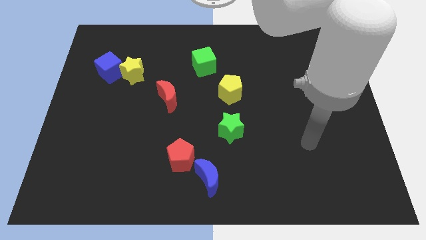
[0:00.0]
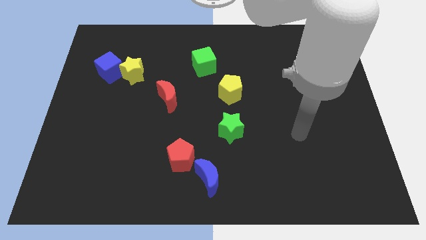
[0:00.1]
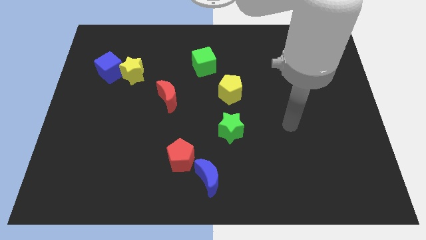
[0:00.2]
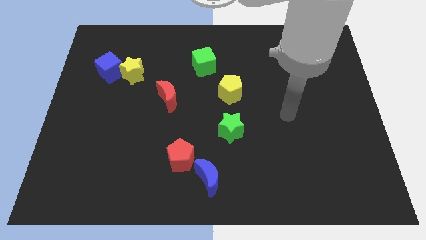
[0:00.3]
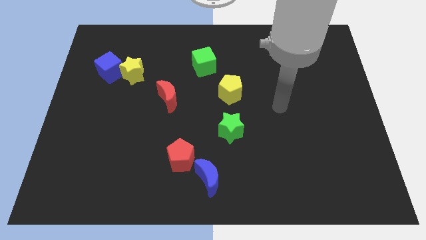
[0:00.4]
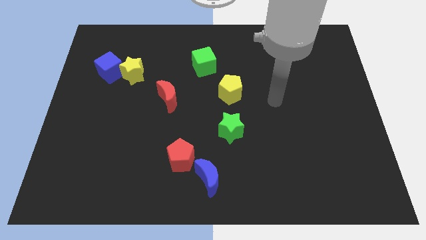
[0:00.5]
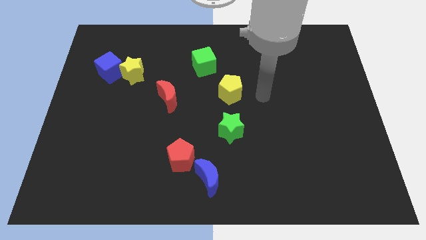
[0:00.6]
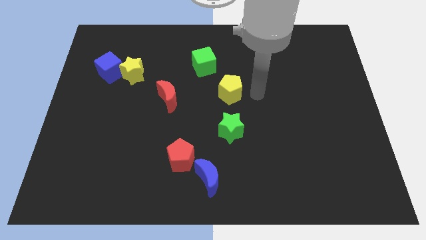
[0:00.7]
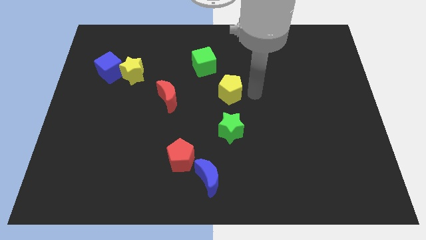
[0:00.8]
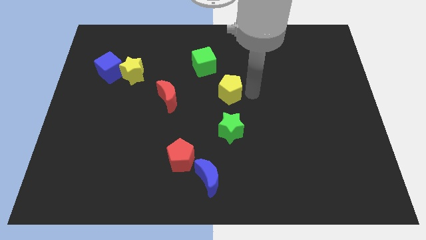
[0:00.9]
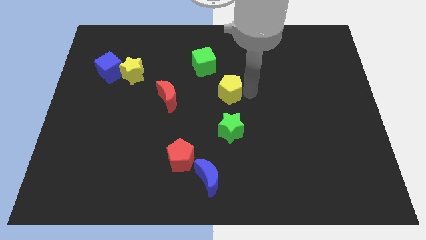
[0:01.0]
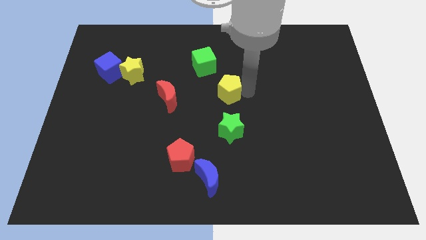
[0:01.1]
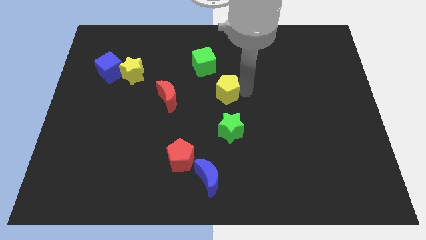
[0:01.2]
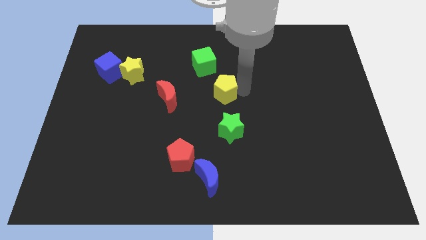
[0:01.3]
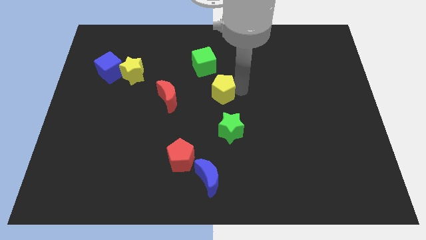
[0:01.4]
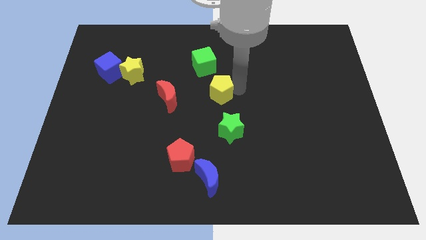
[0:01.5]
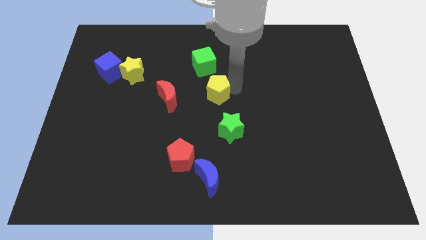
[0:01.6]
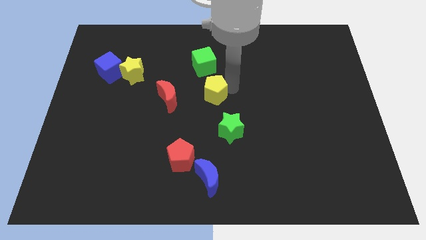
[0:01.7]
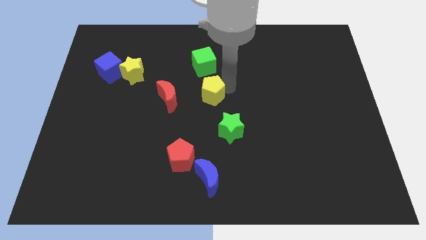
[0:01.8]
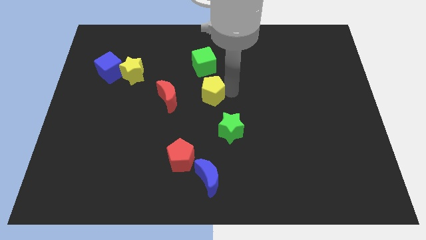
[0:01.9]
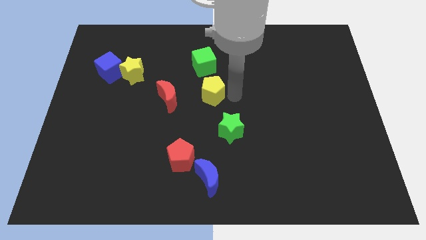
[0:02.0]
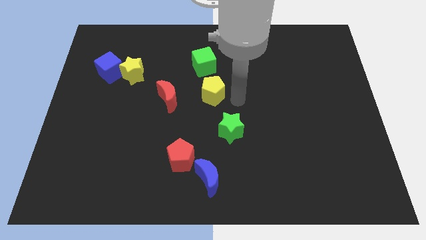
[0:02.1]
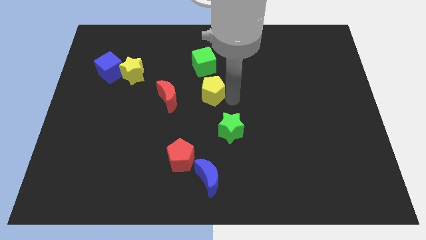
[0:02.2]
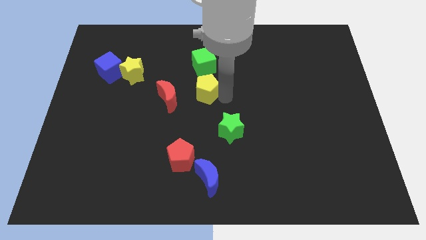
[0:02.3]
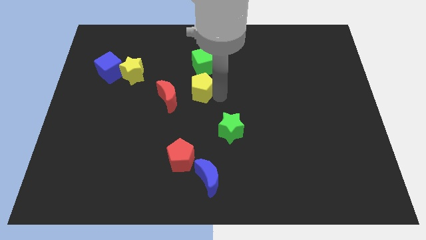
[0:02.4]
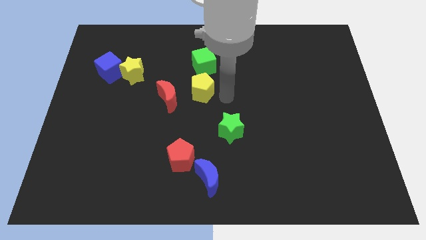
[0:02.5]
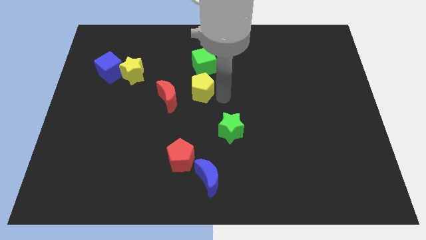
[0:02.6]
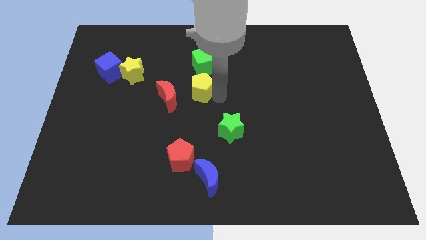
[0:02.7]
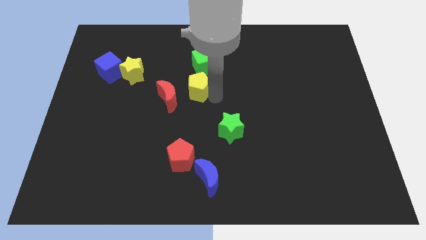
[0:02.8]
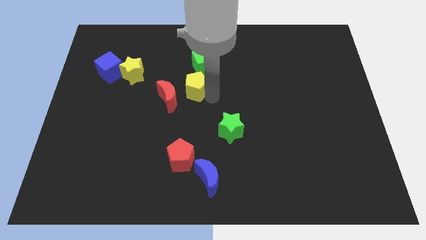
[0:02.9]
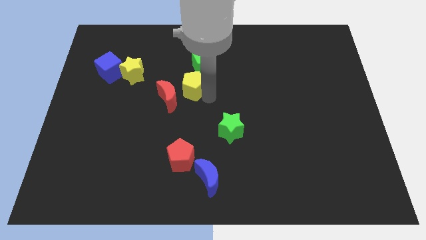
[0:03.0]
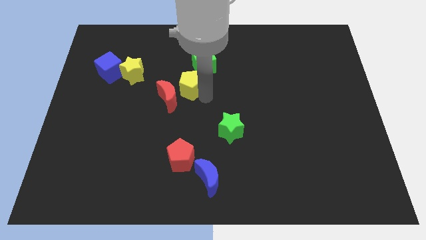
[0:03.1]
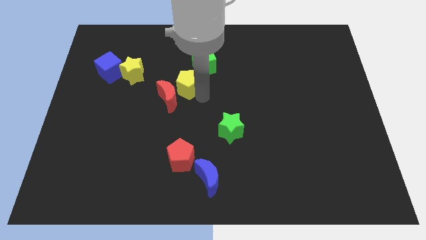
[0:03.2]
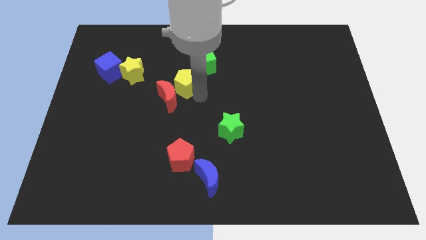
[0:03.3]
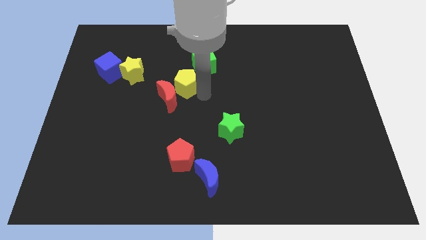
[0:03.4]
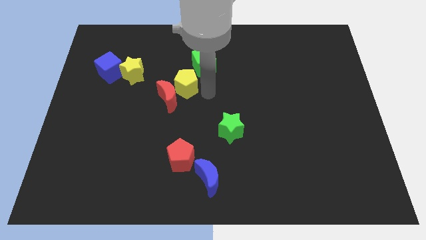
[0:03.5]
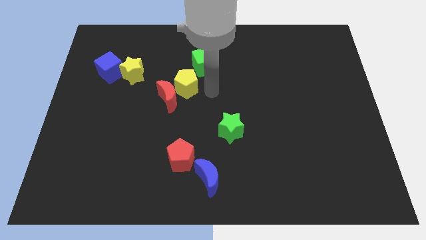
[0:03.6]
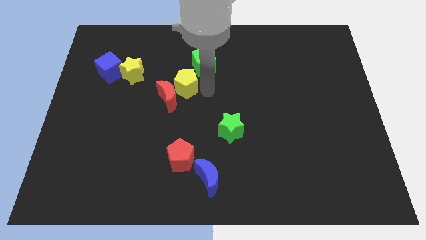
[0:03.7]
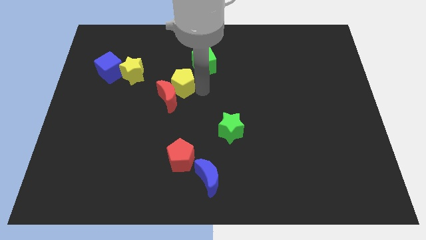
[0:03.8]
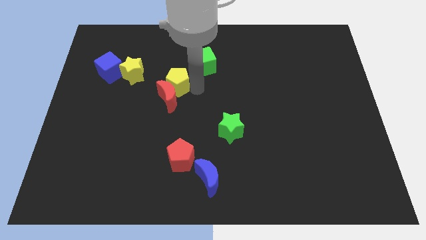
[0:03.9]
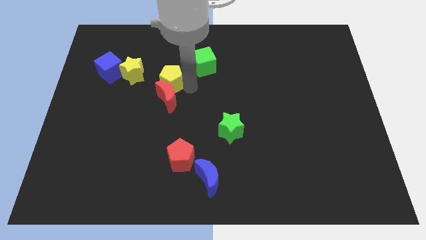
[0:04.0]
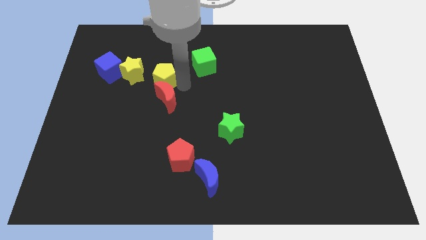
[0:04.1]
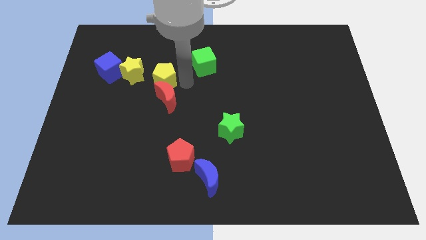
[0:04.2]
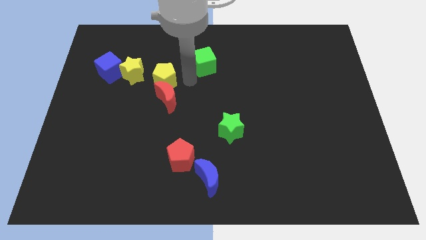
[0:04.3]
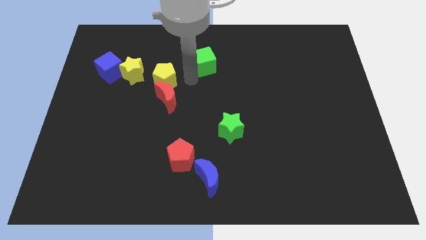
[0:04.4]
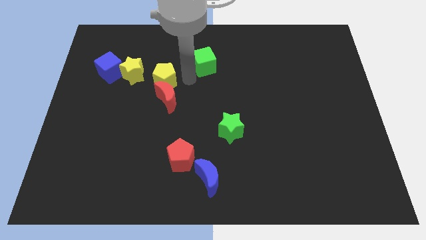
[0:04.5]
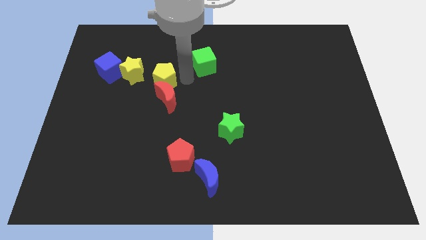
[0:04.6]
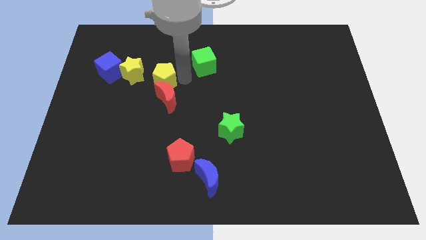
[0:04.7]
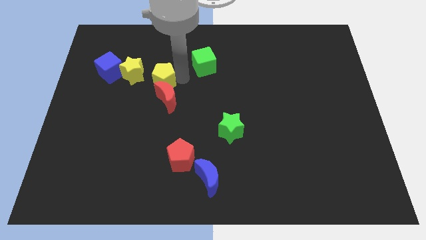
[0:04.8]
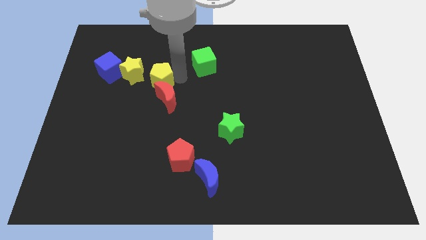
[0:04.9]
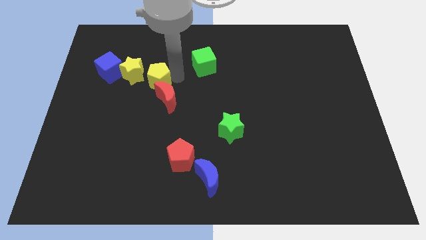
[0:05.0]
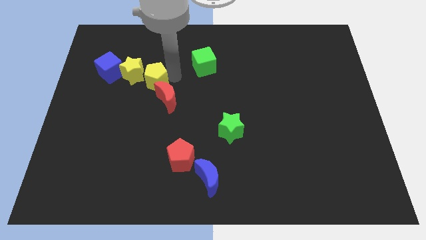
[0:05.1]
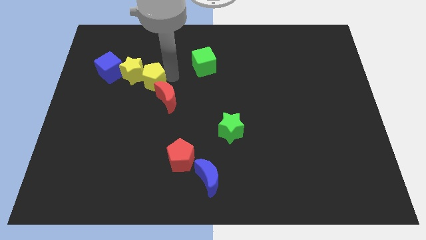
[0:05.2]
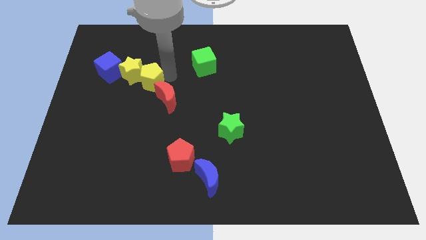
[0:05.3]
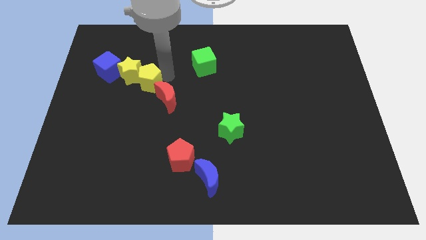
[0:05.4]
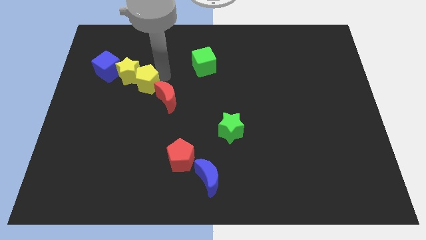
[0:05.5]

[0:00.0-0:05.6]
push the yellow pentagon to the left

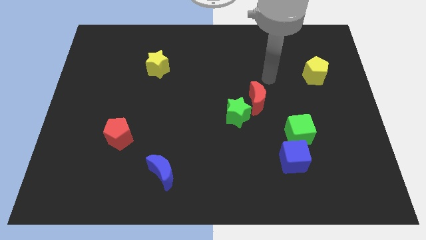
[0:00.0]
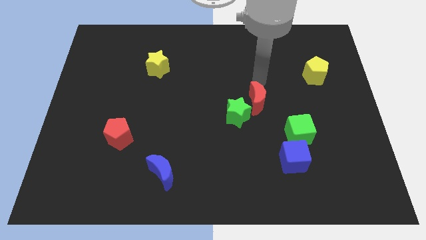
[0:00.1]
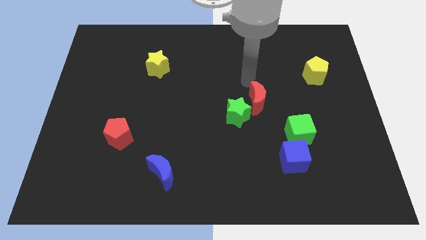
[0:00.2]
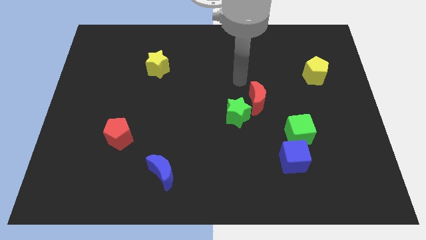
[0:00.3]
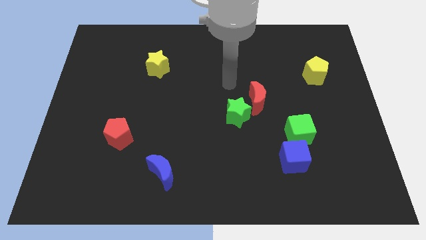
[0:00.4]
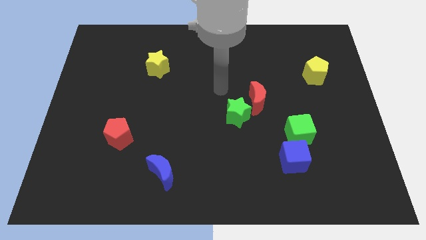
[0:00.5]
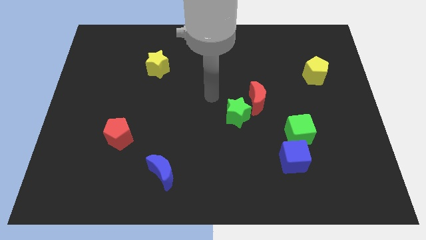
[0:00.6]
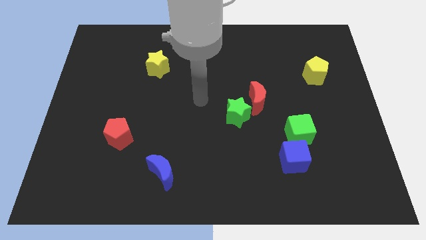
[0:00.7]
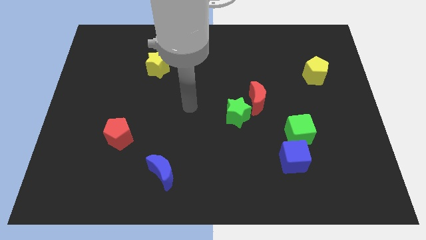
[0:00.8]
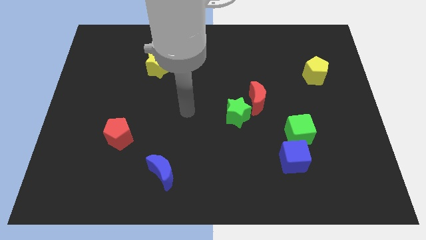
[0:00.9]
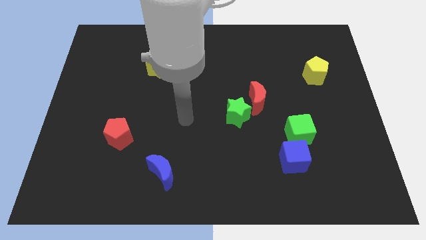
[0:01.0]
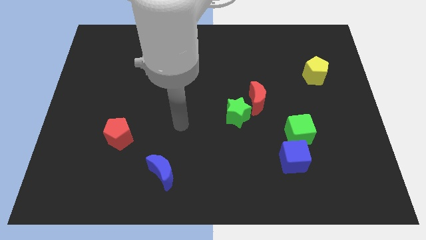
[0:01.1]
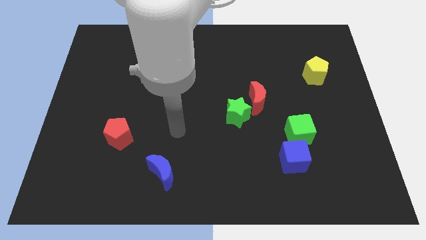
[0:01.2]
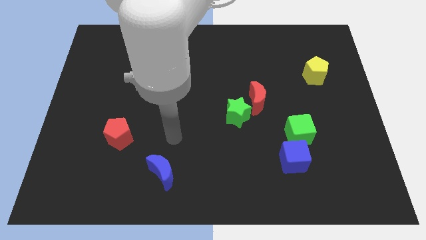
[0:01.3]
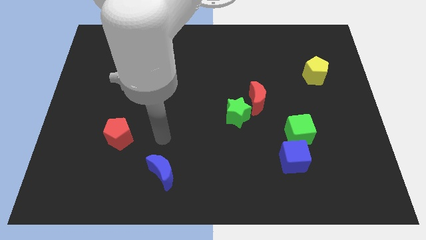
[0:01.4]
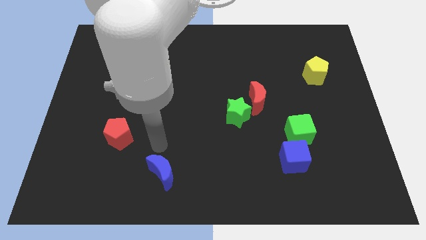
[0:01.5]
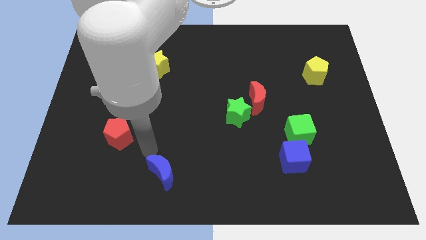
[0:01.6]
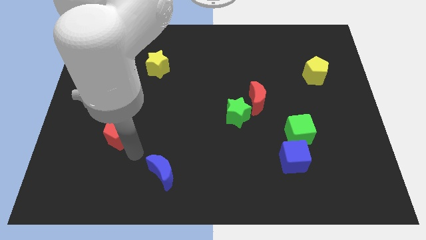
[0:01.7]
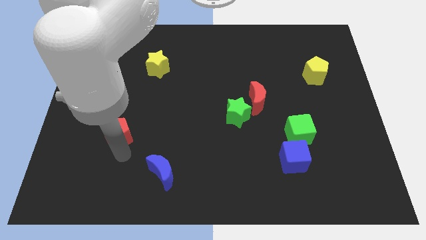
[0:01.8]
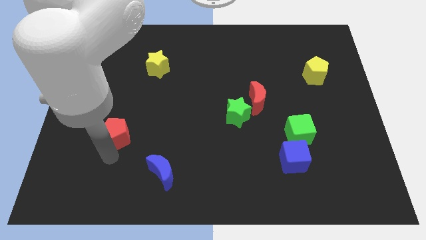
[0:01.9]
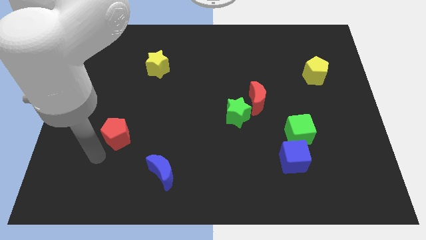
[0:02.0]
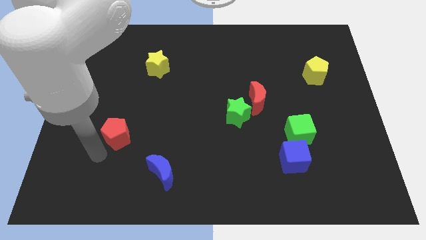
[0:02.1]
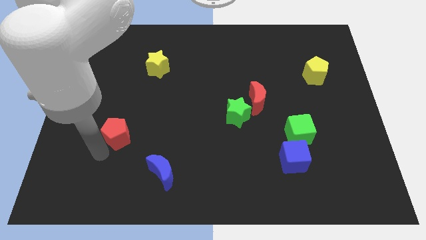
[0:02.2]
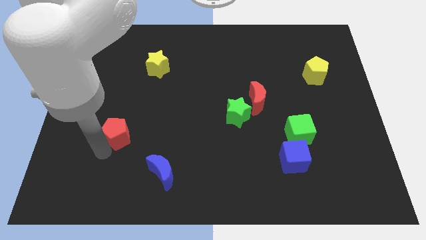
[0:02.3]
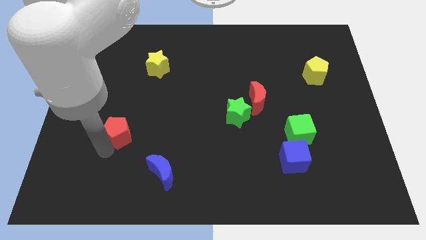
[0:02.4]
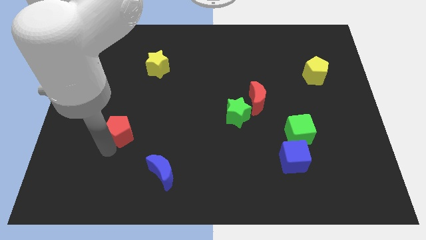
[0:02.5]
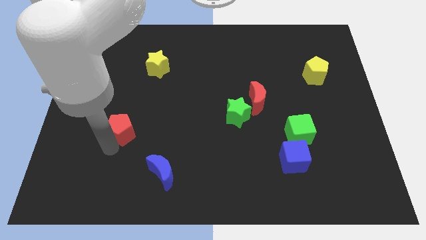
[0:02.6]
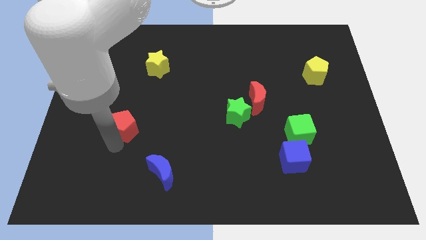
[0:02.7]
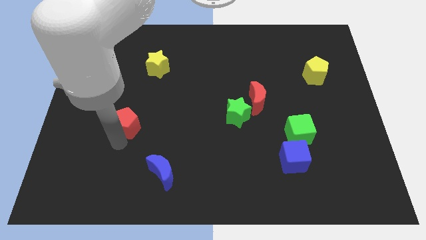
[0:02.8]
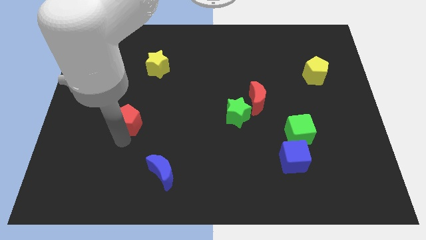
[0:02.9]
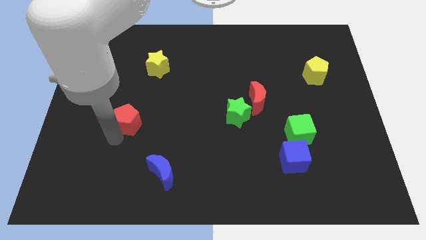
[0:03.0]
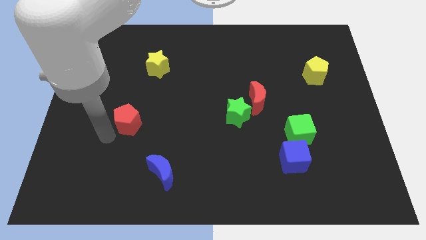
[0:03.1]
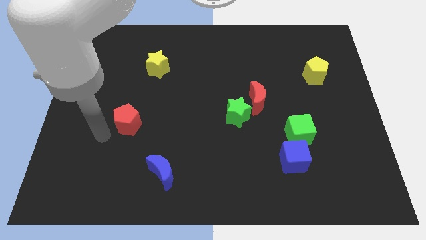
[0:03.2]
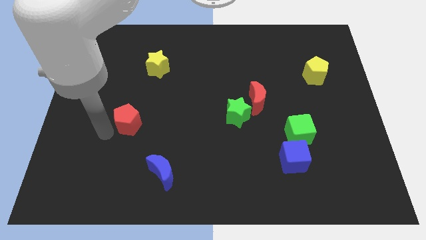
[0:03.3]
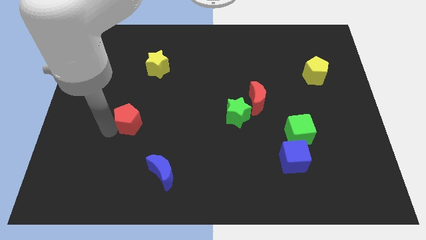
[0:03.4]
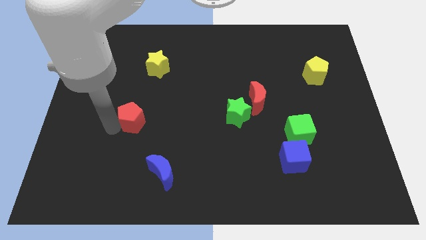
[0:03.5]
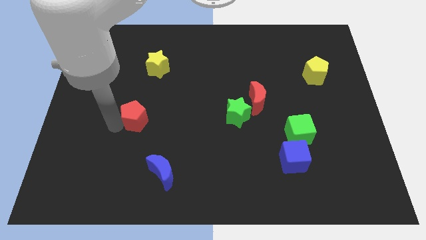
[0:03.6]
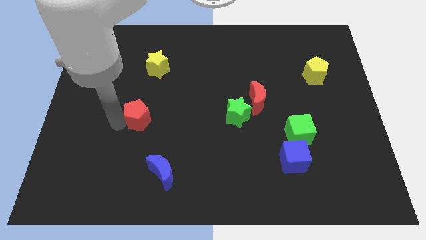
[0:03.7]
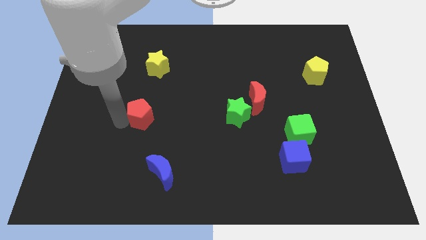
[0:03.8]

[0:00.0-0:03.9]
slightly slide the red pentagon diagonally upwards and right
